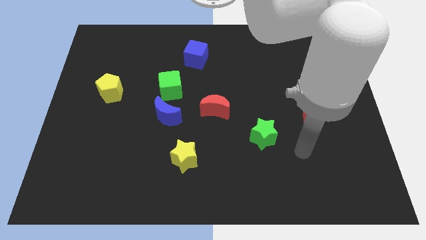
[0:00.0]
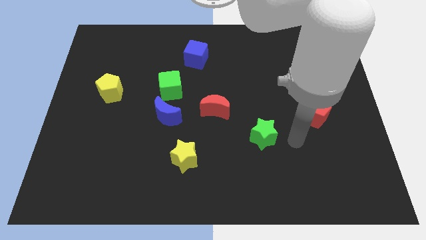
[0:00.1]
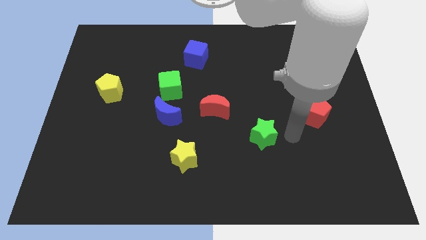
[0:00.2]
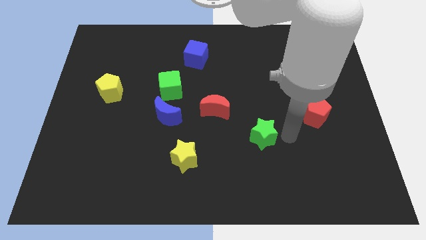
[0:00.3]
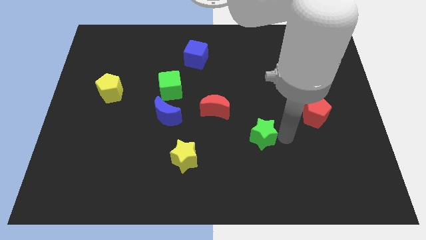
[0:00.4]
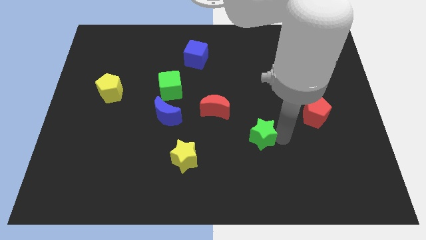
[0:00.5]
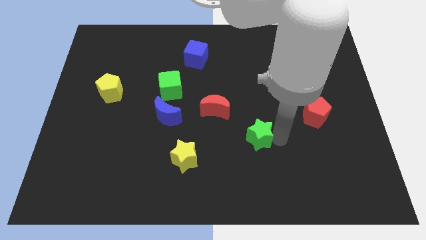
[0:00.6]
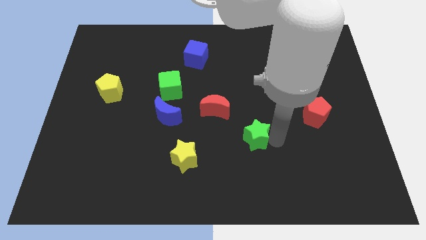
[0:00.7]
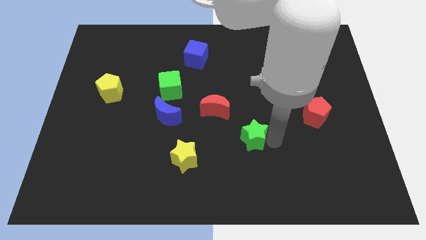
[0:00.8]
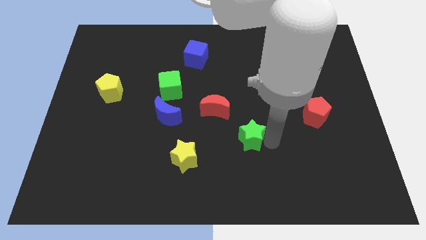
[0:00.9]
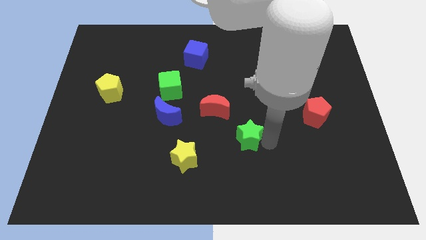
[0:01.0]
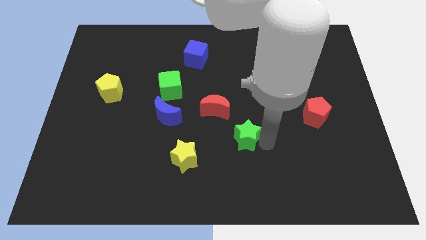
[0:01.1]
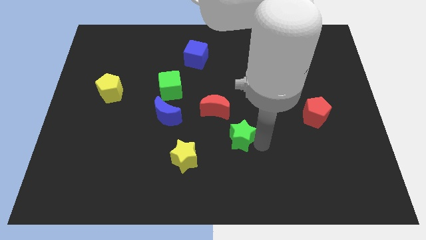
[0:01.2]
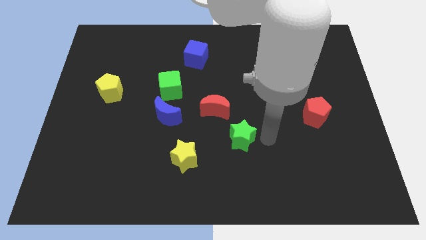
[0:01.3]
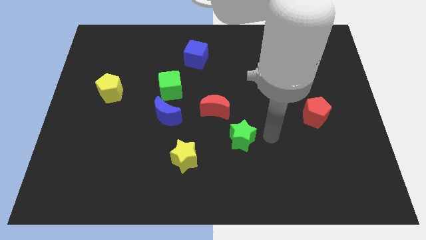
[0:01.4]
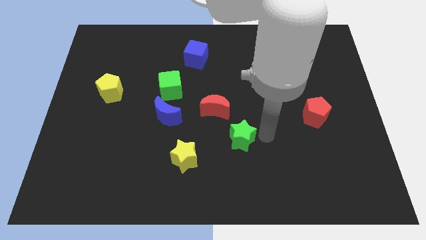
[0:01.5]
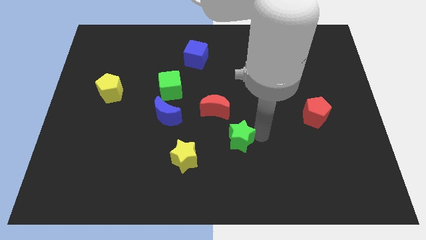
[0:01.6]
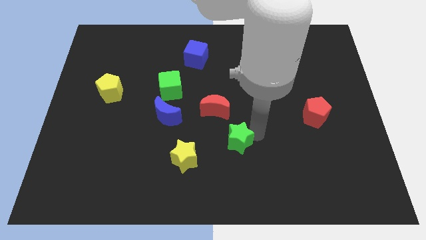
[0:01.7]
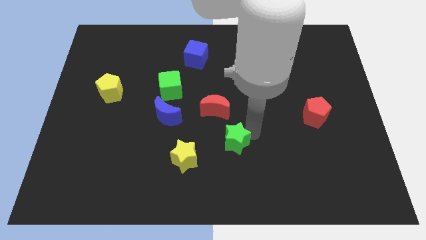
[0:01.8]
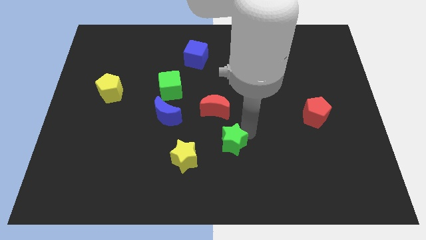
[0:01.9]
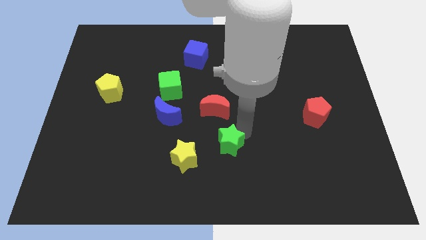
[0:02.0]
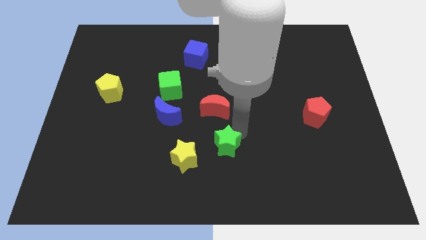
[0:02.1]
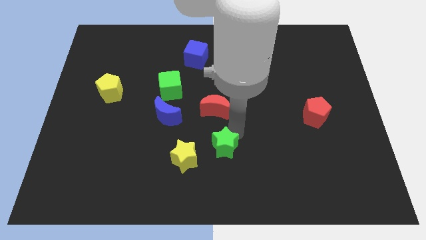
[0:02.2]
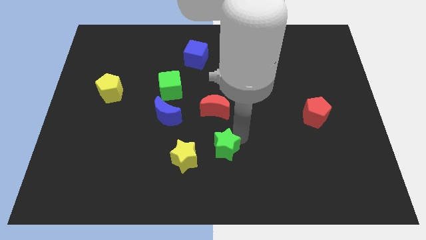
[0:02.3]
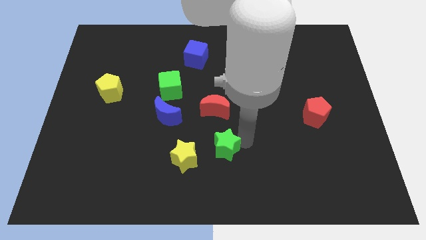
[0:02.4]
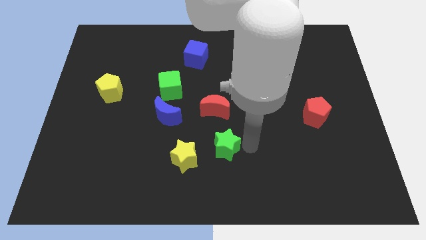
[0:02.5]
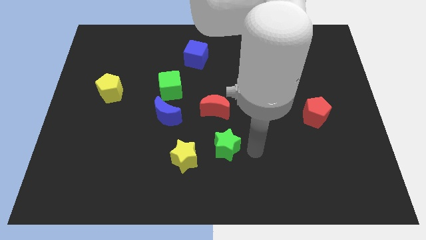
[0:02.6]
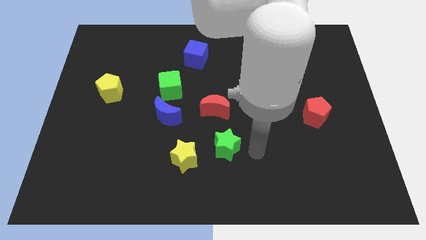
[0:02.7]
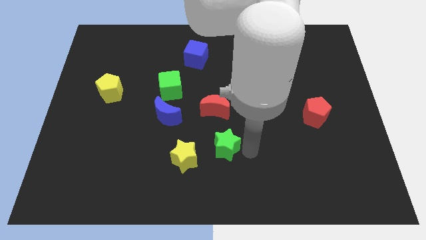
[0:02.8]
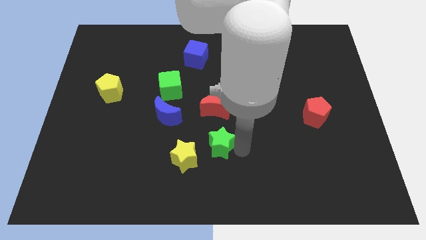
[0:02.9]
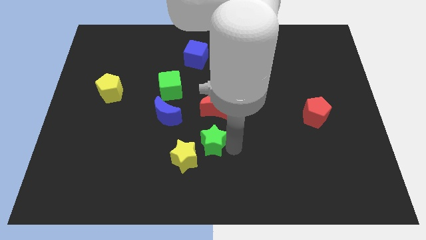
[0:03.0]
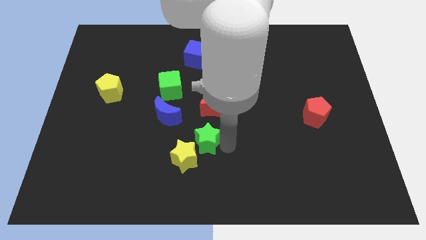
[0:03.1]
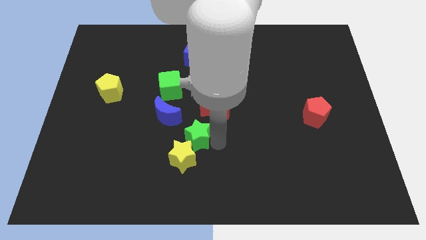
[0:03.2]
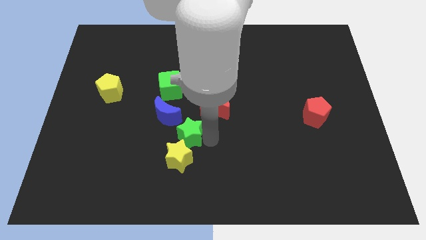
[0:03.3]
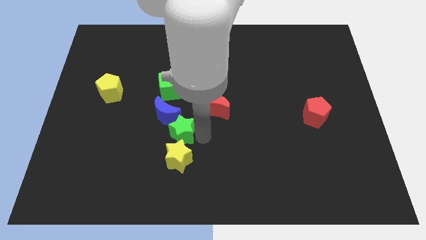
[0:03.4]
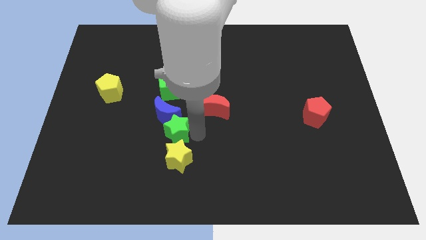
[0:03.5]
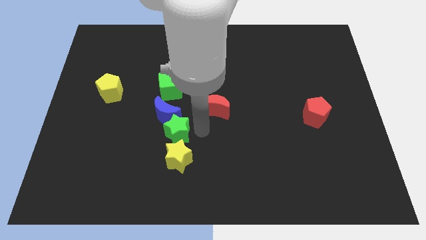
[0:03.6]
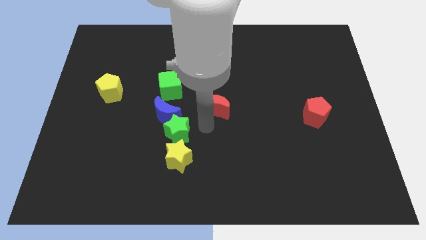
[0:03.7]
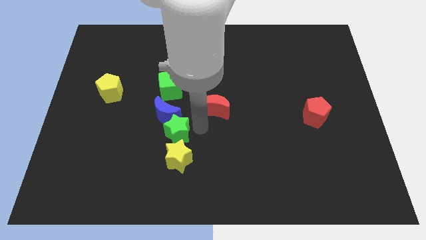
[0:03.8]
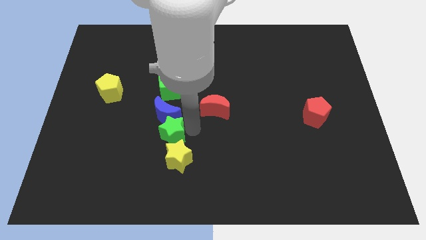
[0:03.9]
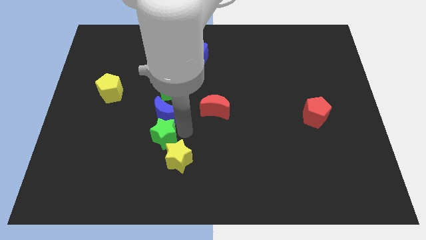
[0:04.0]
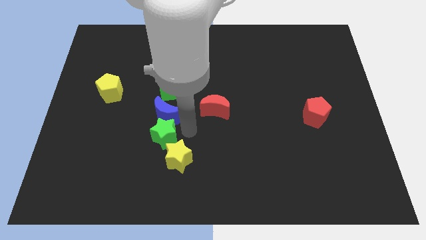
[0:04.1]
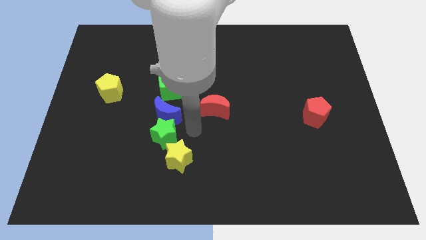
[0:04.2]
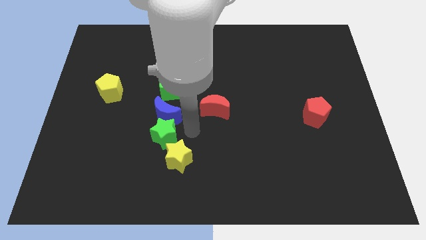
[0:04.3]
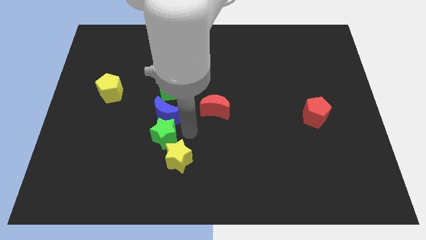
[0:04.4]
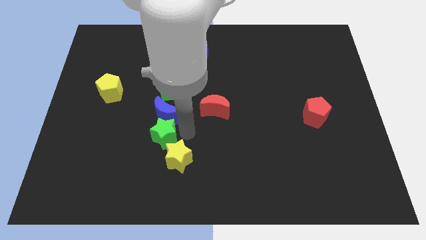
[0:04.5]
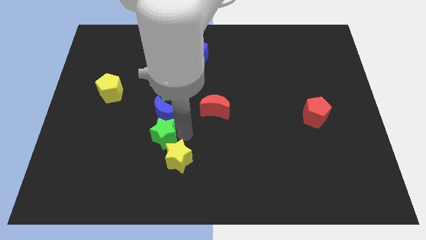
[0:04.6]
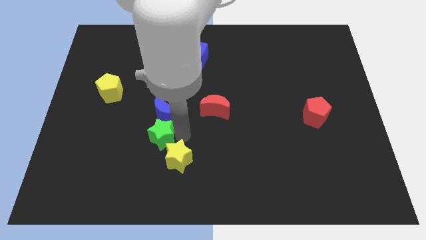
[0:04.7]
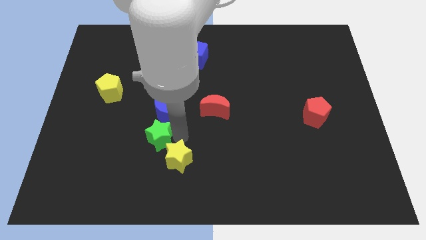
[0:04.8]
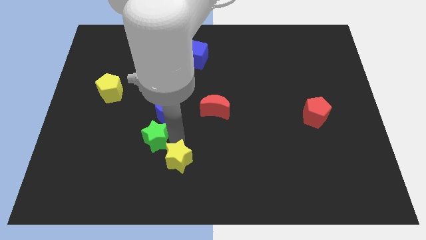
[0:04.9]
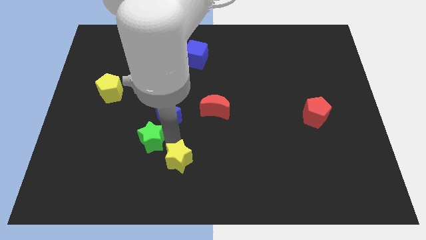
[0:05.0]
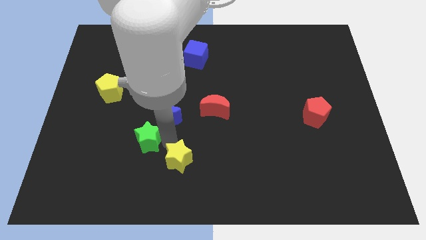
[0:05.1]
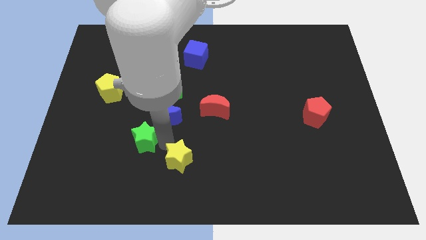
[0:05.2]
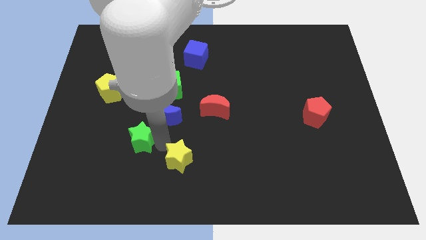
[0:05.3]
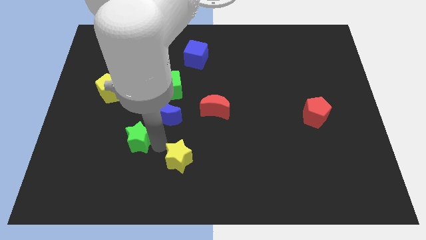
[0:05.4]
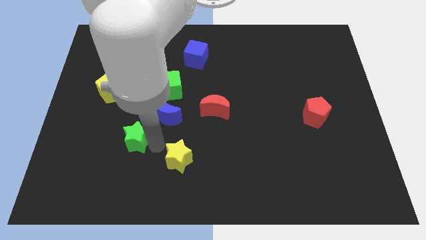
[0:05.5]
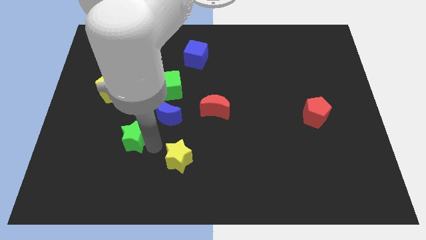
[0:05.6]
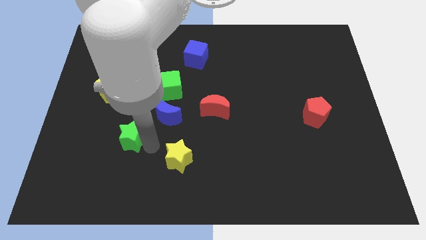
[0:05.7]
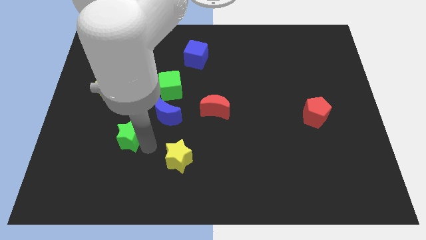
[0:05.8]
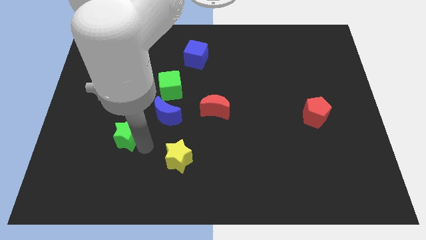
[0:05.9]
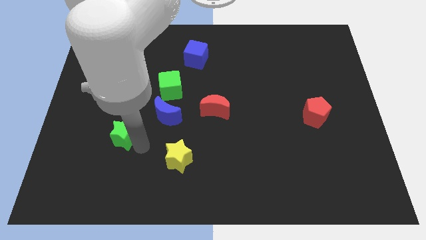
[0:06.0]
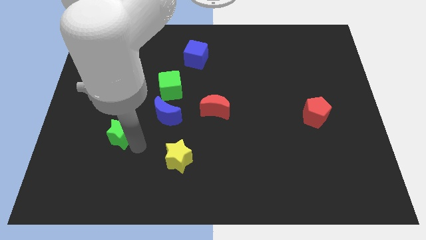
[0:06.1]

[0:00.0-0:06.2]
push the green star to the bottom side of the yellow pentagon
